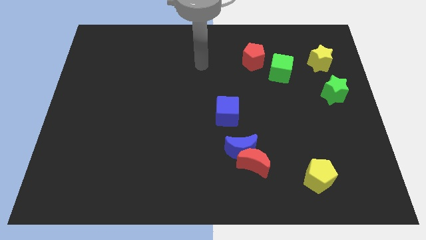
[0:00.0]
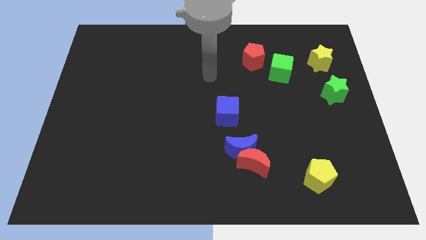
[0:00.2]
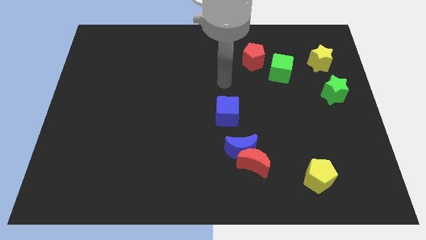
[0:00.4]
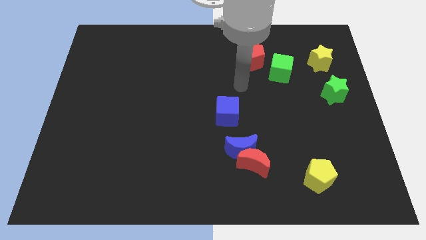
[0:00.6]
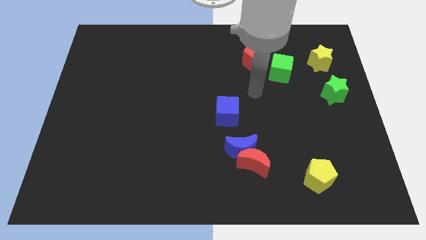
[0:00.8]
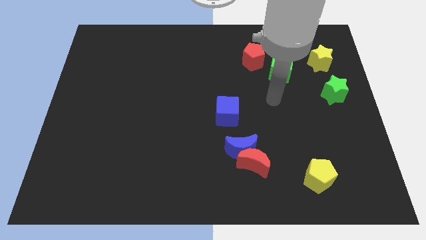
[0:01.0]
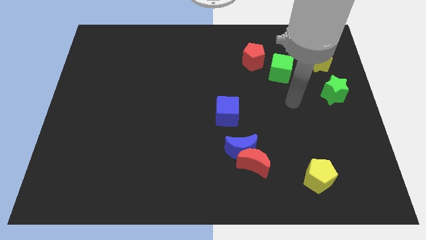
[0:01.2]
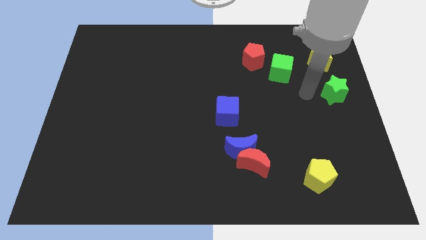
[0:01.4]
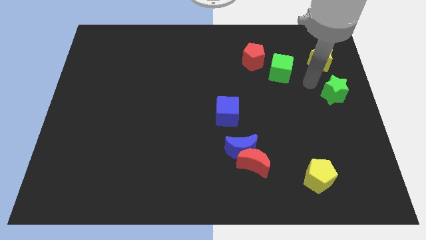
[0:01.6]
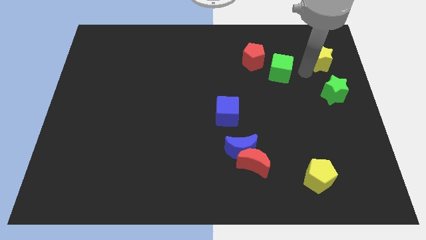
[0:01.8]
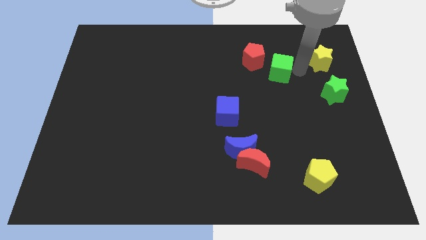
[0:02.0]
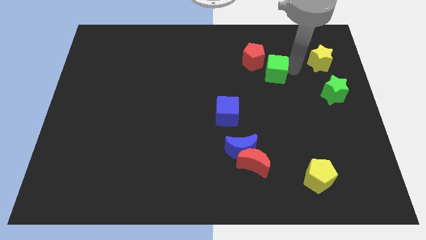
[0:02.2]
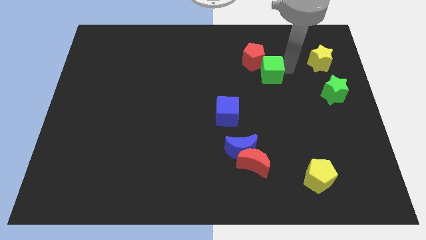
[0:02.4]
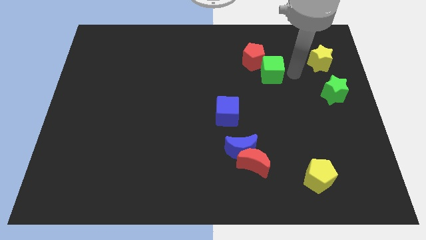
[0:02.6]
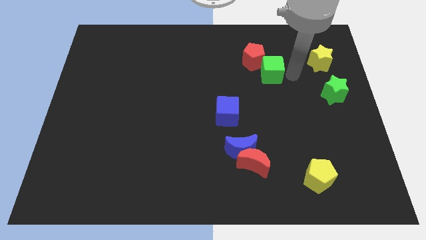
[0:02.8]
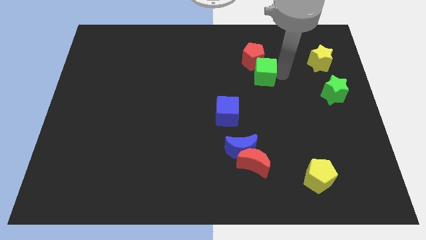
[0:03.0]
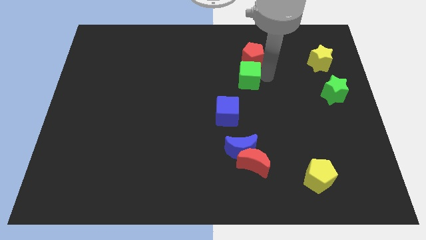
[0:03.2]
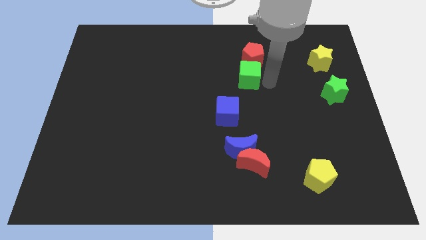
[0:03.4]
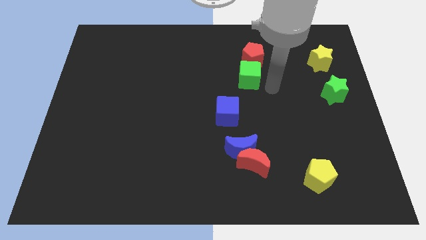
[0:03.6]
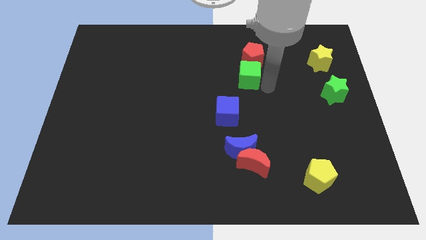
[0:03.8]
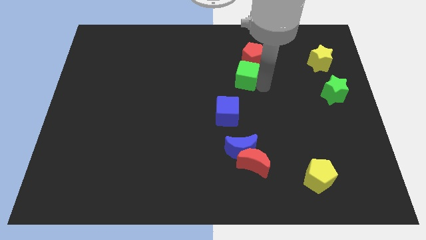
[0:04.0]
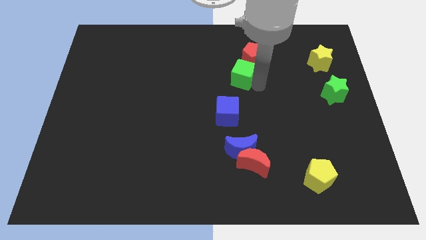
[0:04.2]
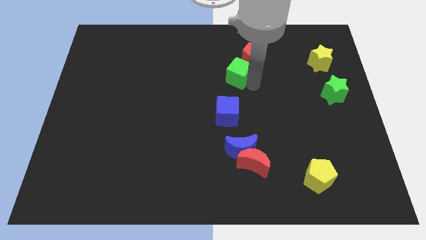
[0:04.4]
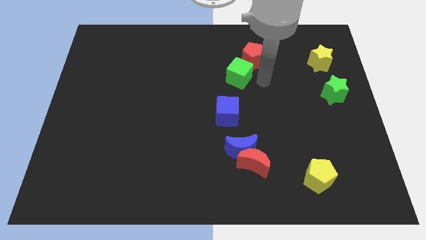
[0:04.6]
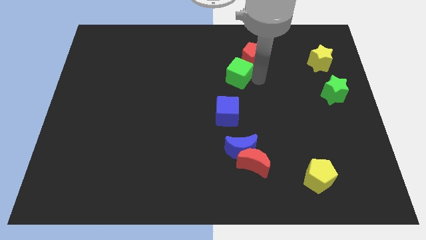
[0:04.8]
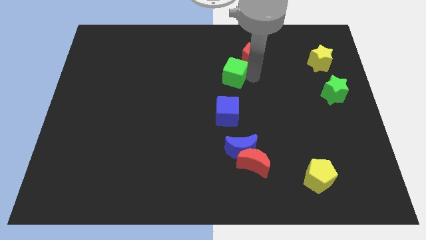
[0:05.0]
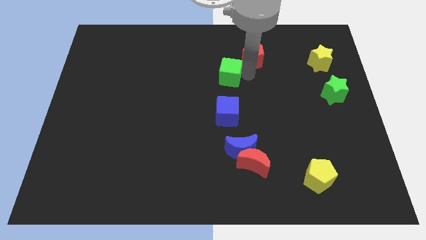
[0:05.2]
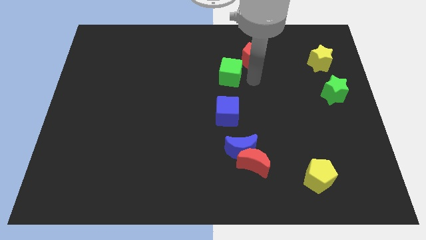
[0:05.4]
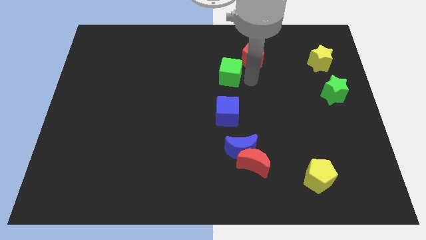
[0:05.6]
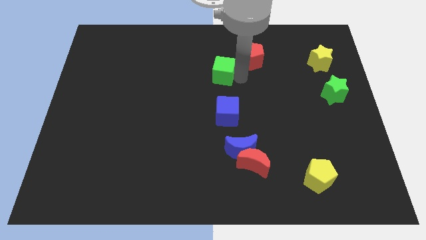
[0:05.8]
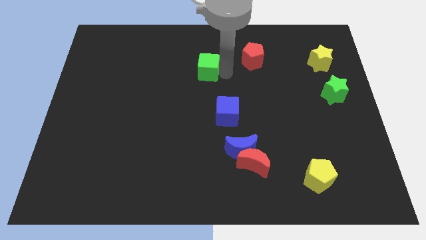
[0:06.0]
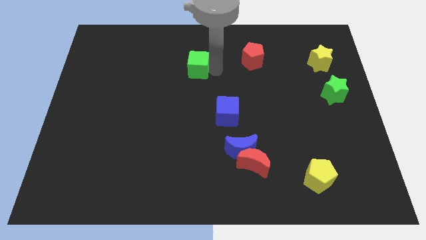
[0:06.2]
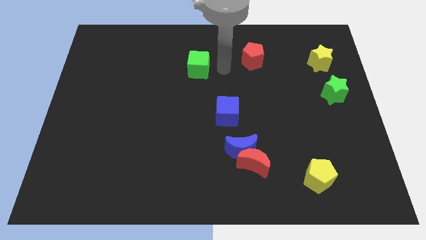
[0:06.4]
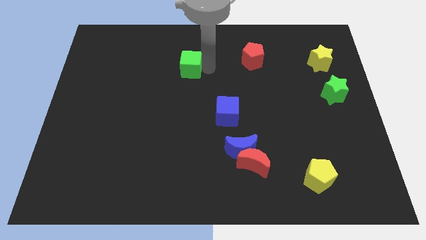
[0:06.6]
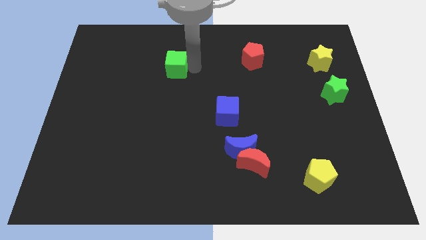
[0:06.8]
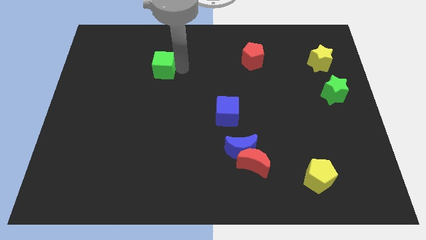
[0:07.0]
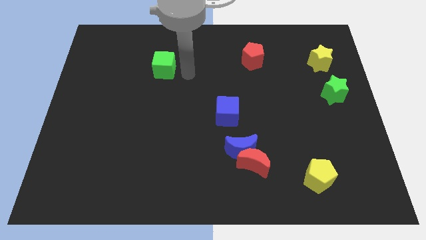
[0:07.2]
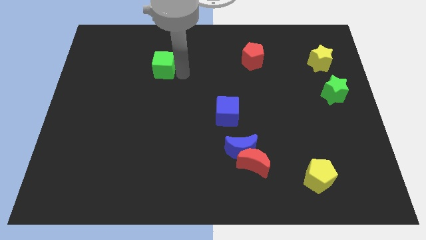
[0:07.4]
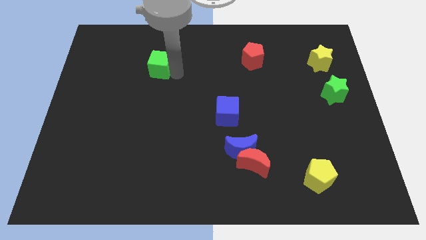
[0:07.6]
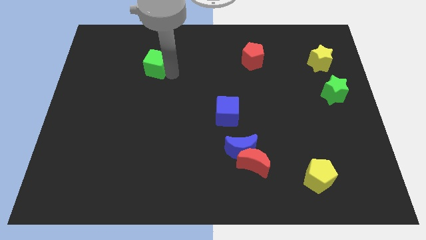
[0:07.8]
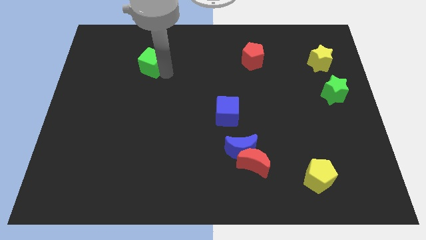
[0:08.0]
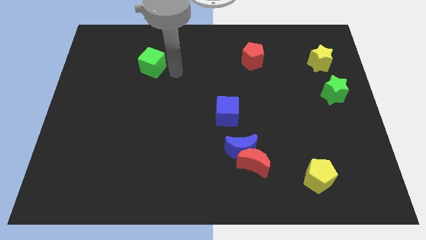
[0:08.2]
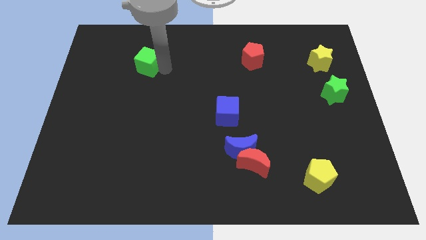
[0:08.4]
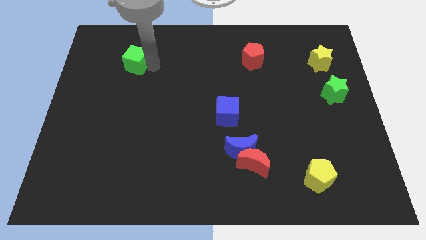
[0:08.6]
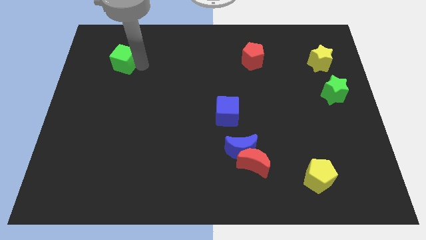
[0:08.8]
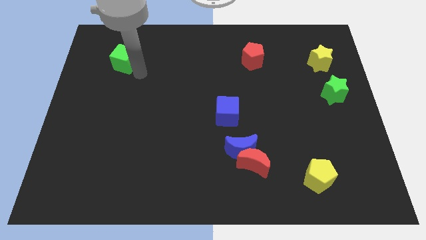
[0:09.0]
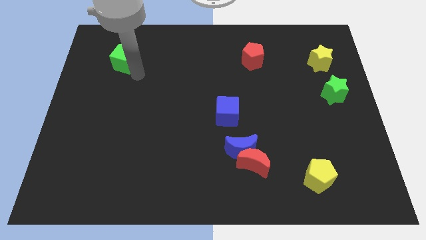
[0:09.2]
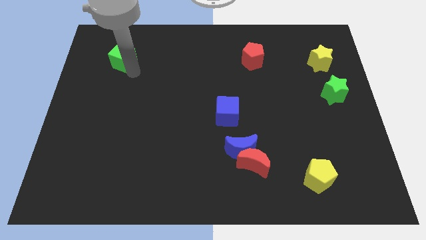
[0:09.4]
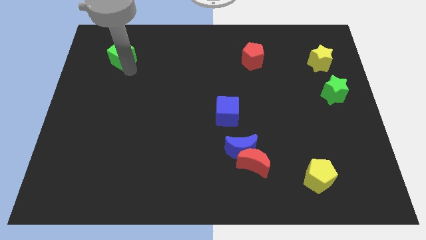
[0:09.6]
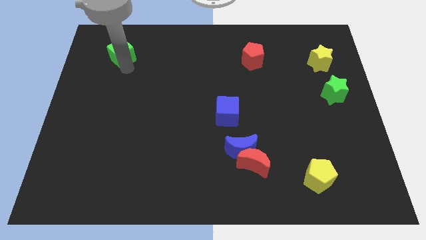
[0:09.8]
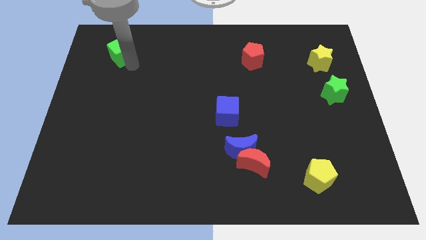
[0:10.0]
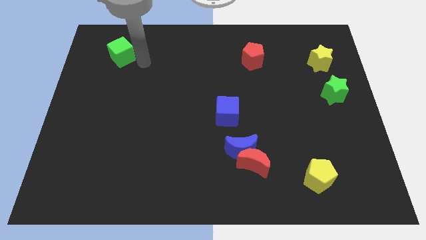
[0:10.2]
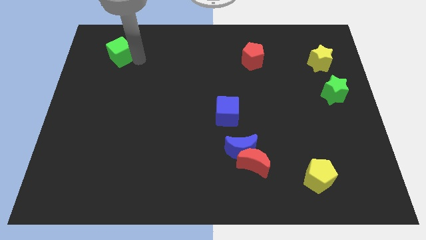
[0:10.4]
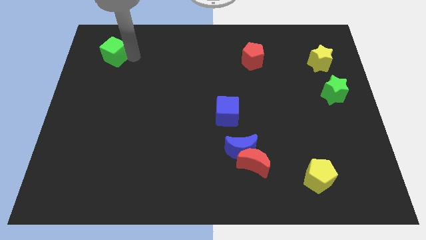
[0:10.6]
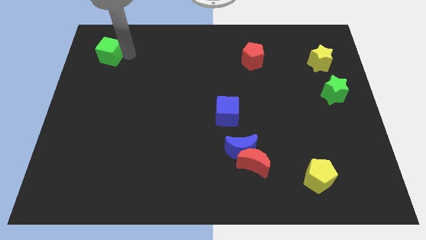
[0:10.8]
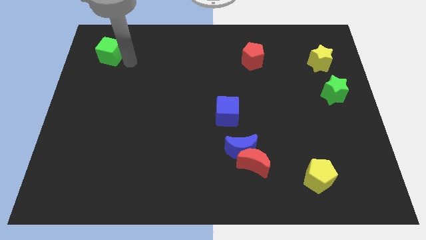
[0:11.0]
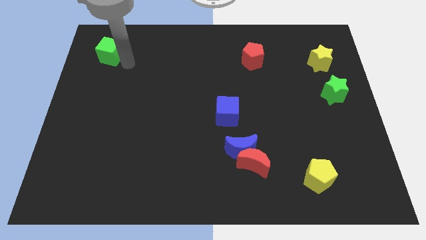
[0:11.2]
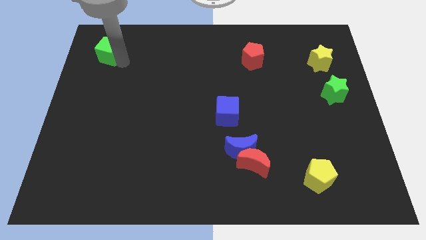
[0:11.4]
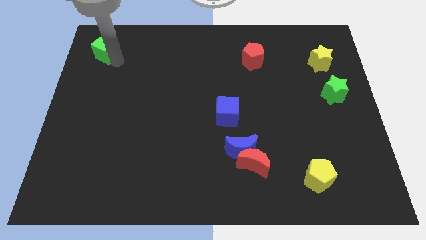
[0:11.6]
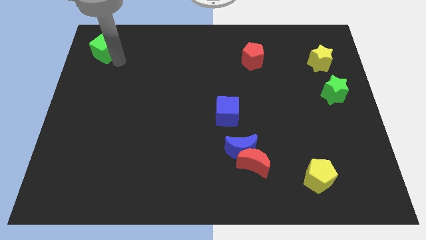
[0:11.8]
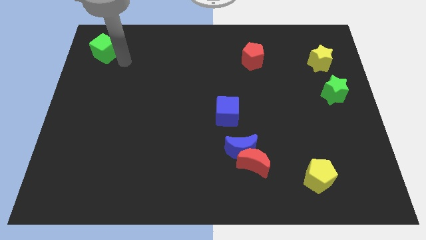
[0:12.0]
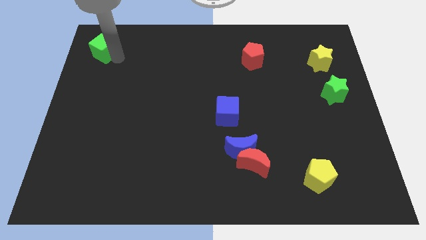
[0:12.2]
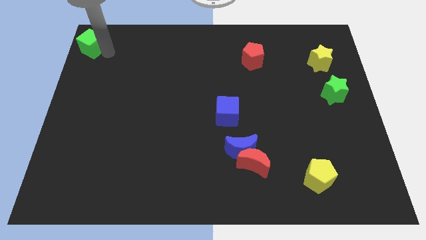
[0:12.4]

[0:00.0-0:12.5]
move the green cube to the upper left corner
